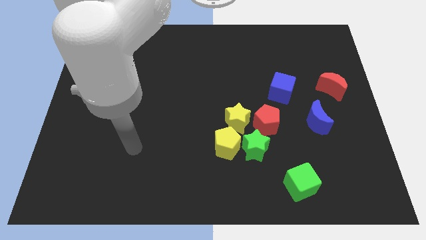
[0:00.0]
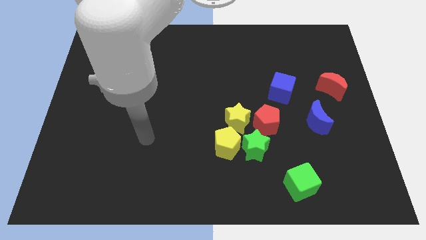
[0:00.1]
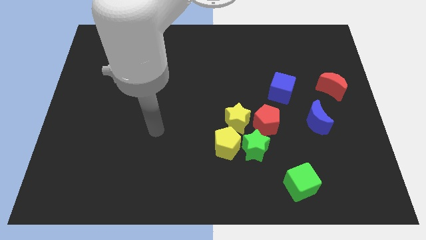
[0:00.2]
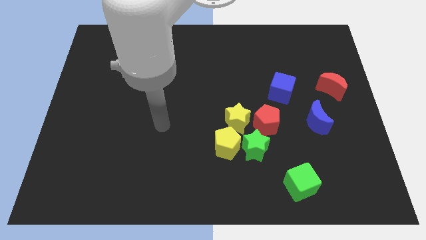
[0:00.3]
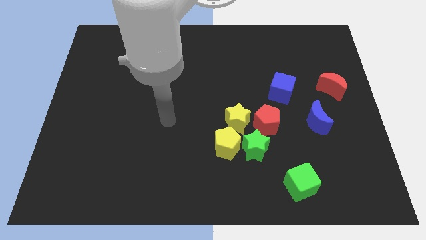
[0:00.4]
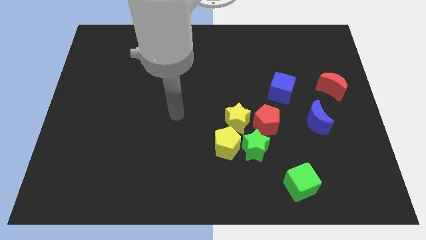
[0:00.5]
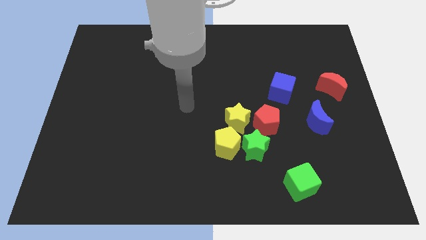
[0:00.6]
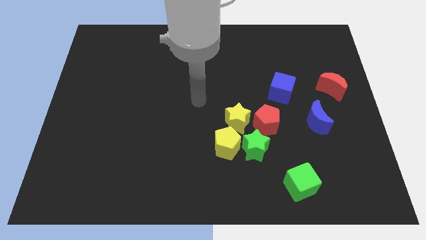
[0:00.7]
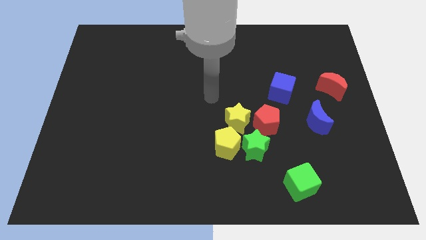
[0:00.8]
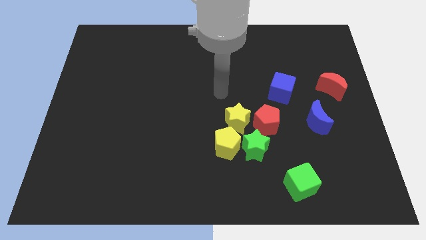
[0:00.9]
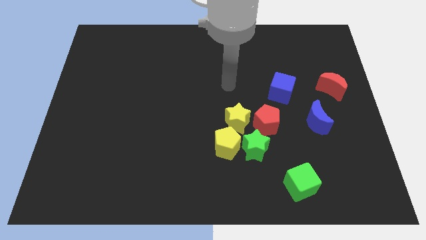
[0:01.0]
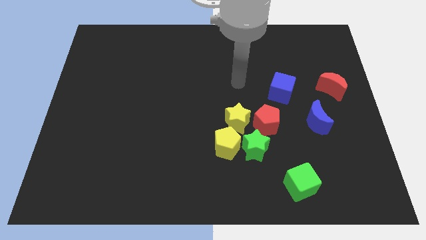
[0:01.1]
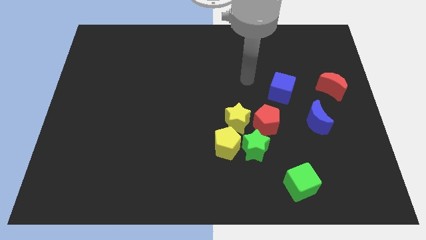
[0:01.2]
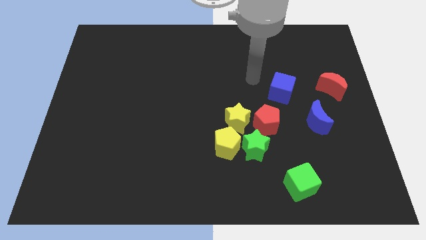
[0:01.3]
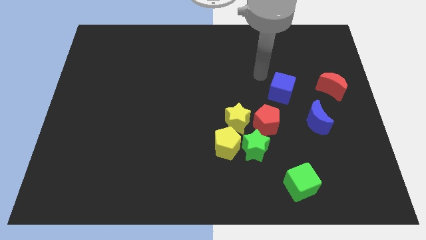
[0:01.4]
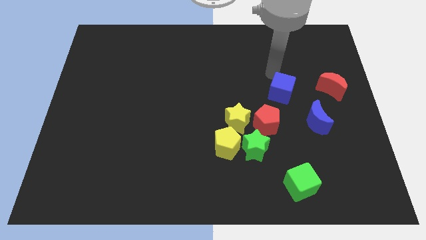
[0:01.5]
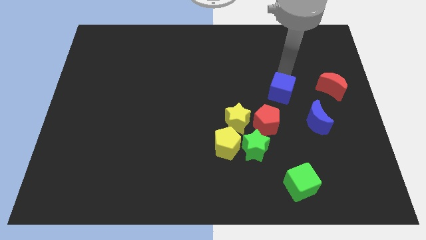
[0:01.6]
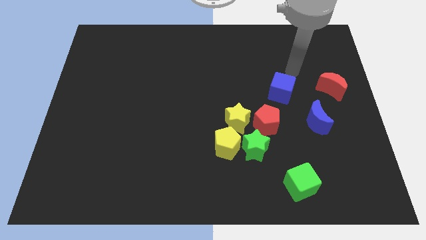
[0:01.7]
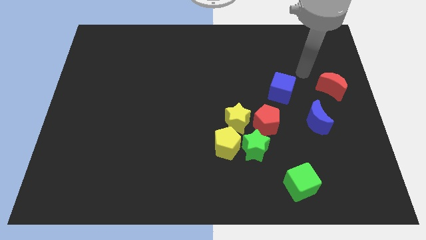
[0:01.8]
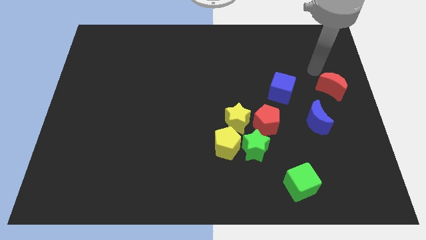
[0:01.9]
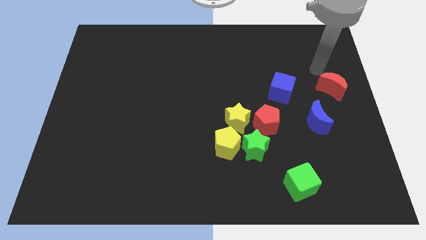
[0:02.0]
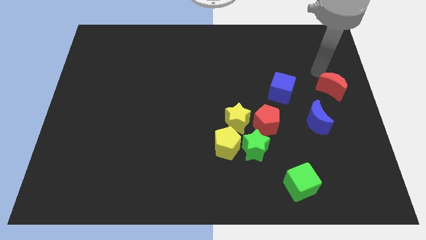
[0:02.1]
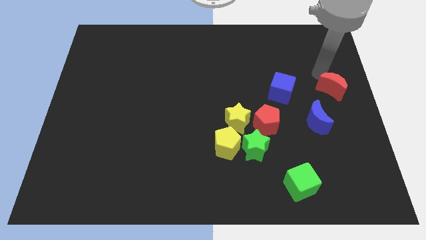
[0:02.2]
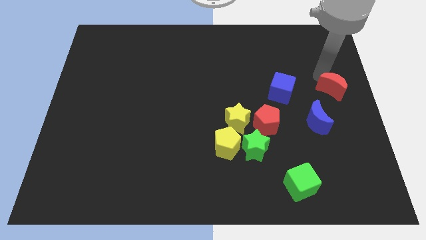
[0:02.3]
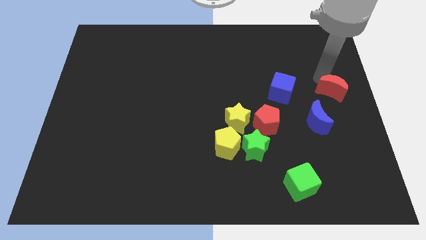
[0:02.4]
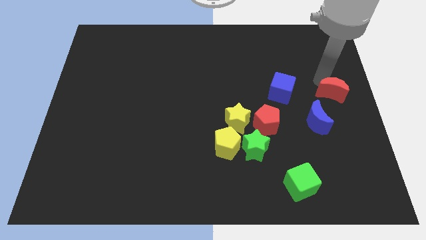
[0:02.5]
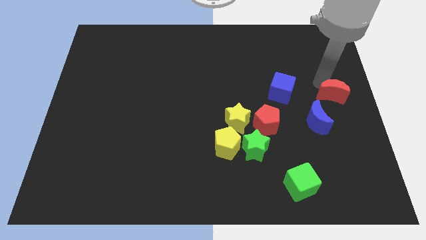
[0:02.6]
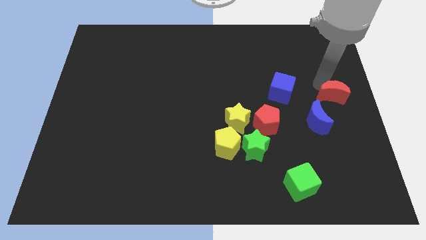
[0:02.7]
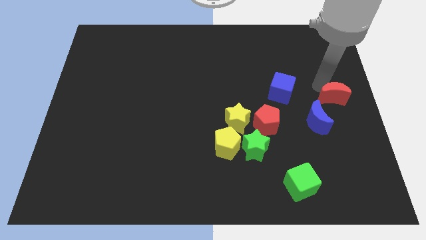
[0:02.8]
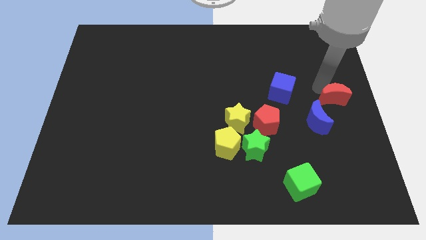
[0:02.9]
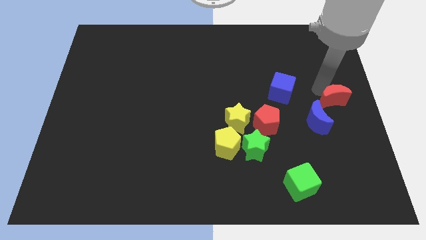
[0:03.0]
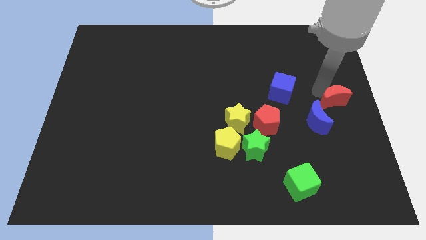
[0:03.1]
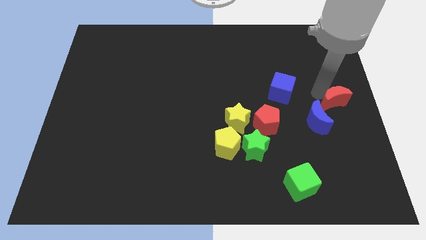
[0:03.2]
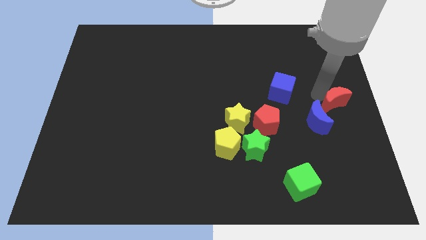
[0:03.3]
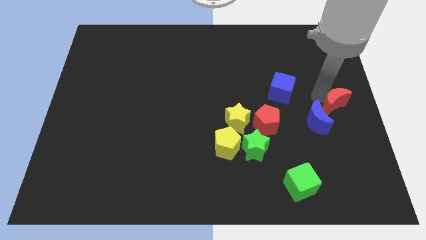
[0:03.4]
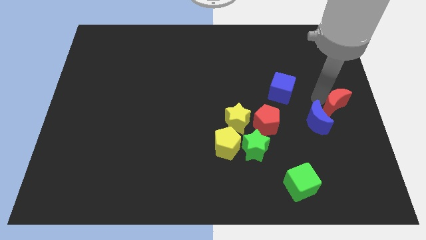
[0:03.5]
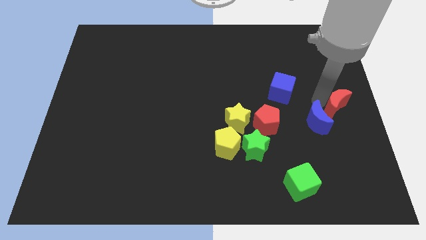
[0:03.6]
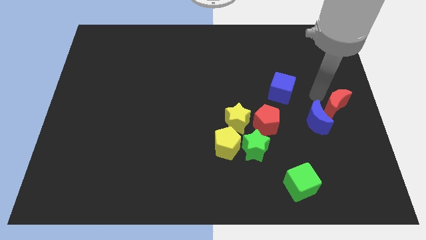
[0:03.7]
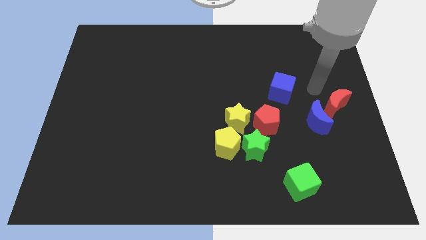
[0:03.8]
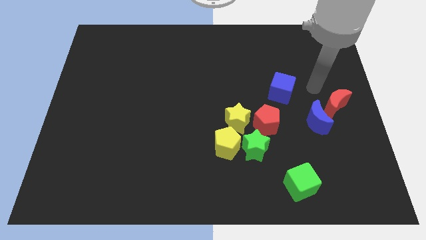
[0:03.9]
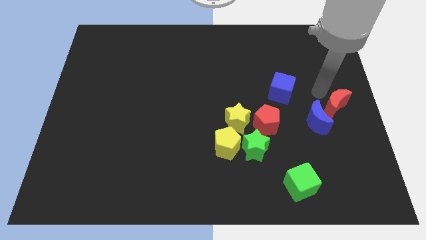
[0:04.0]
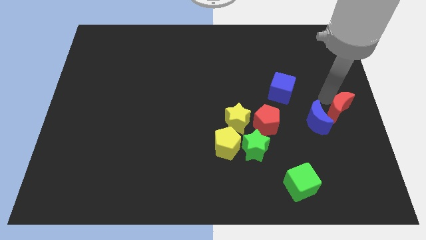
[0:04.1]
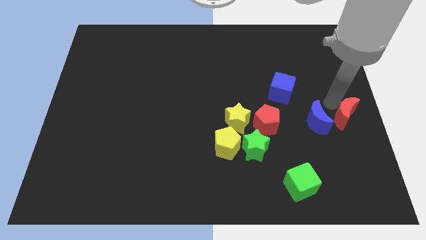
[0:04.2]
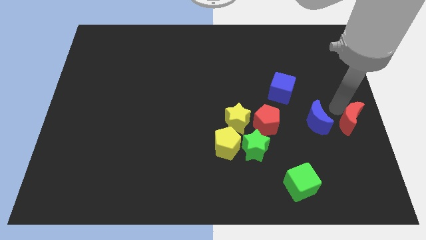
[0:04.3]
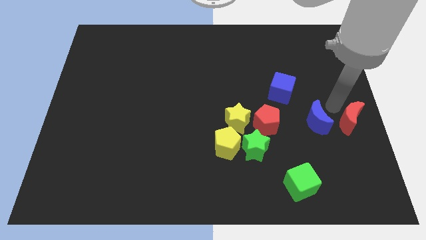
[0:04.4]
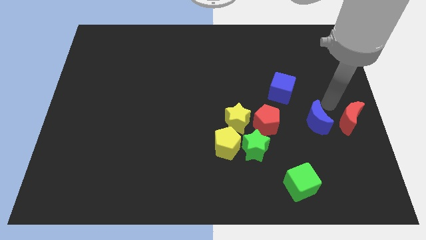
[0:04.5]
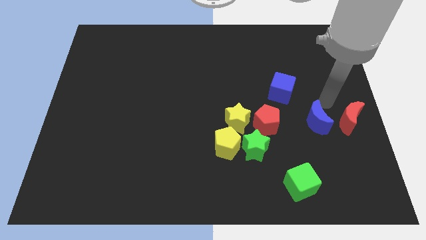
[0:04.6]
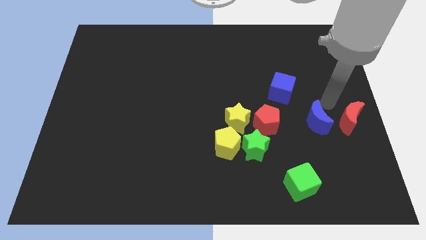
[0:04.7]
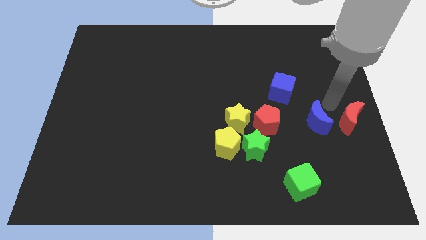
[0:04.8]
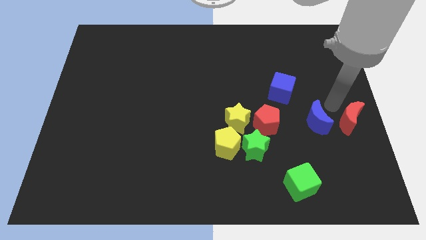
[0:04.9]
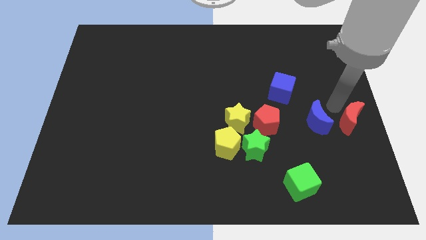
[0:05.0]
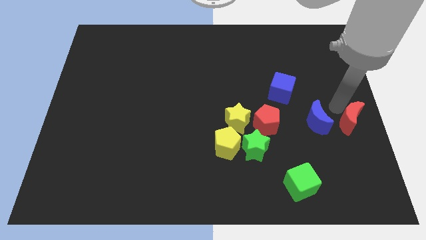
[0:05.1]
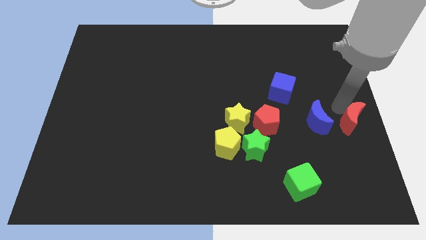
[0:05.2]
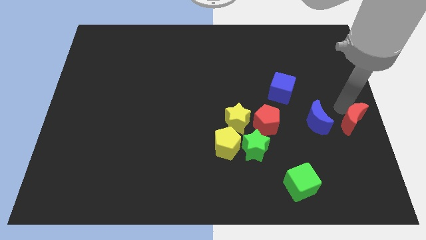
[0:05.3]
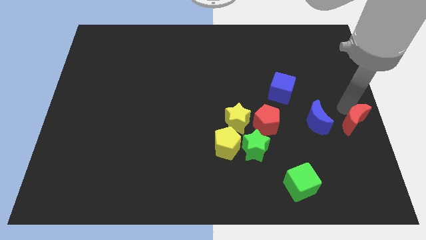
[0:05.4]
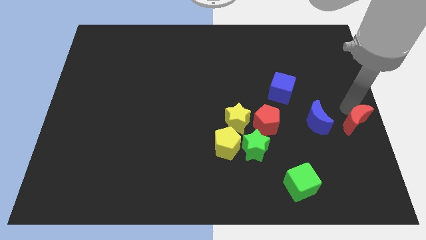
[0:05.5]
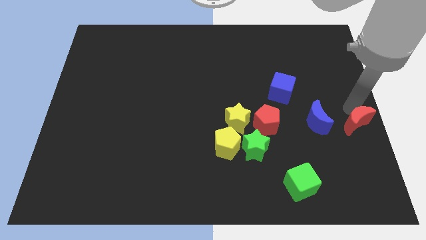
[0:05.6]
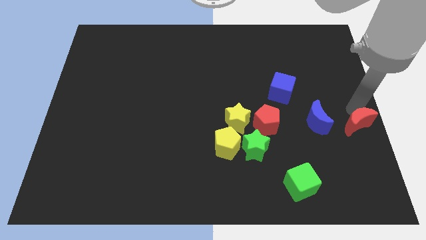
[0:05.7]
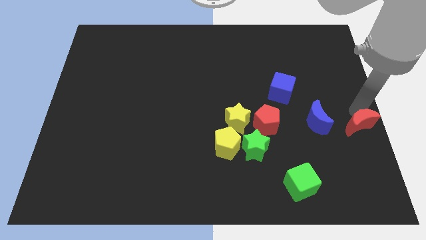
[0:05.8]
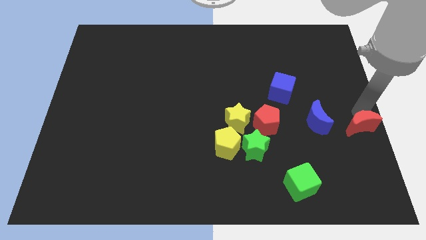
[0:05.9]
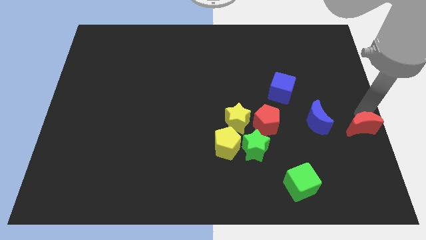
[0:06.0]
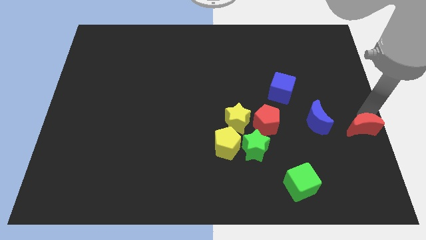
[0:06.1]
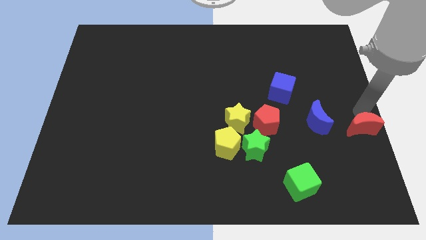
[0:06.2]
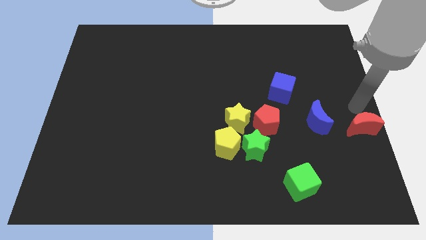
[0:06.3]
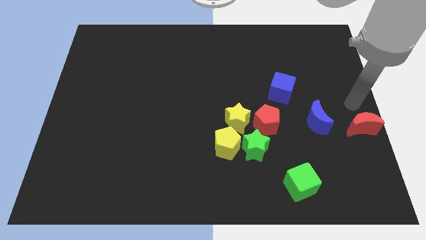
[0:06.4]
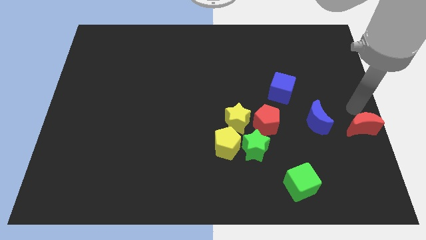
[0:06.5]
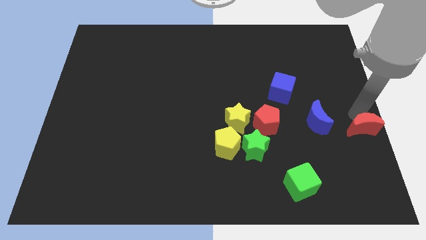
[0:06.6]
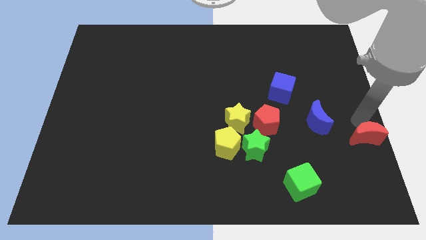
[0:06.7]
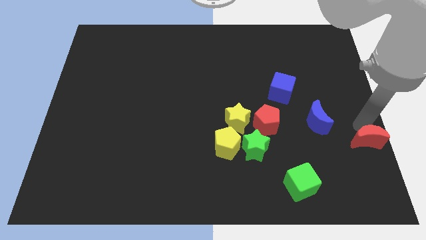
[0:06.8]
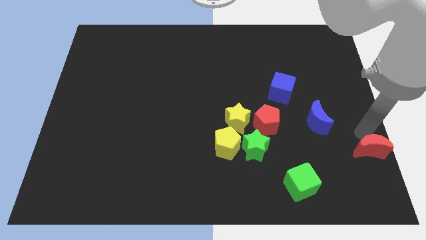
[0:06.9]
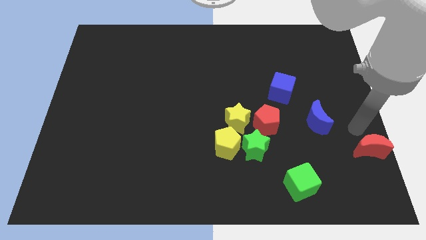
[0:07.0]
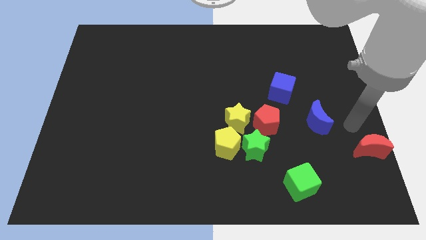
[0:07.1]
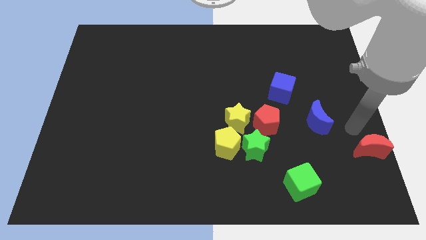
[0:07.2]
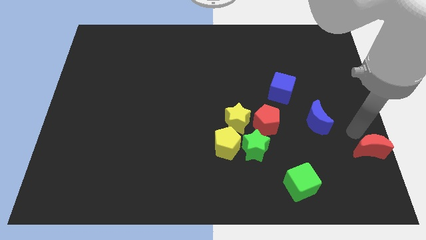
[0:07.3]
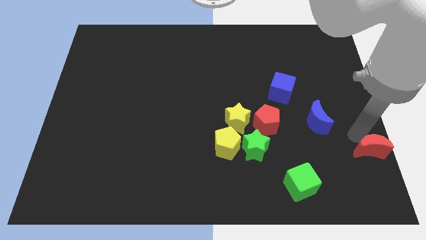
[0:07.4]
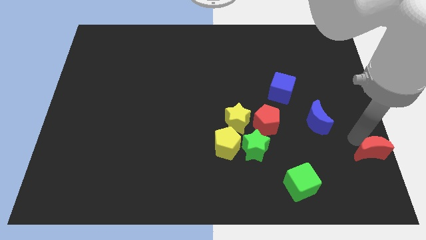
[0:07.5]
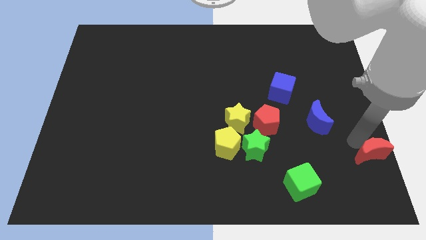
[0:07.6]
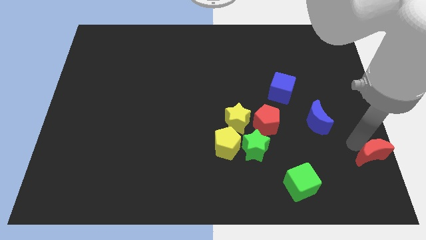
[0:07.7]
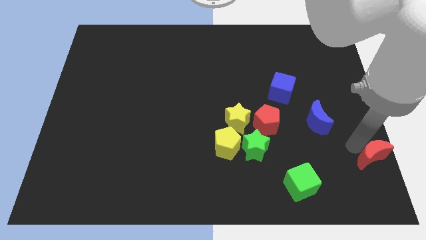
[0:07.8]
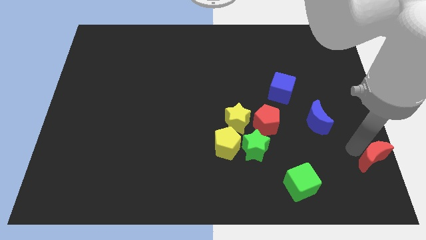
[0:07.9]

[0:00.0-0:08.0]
slide the red moon to the bottom right of the board
